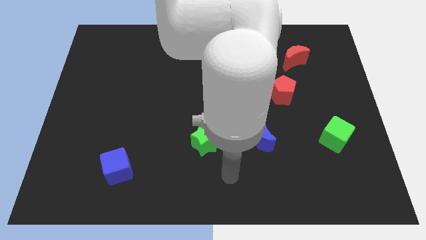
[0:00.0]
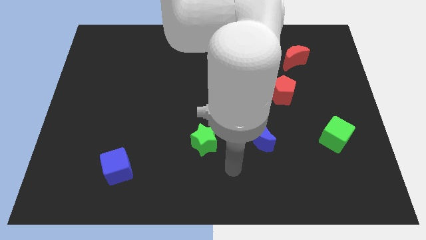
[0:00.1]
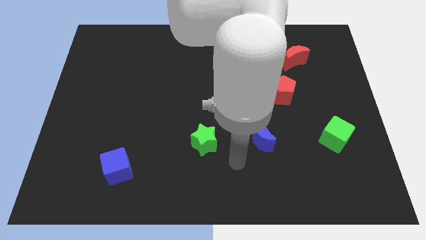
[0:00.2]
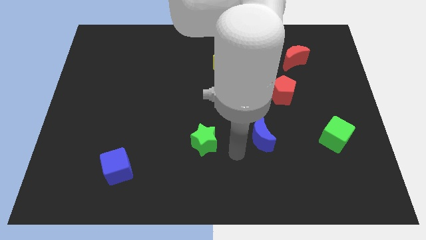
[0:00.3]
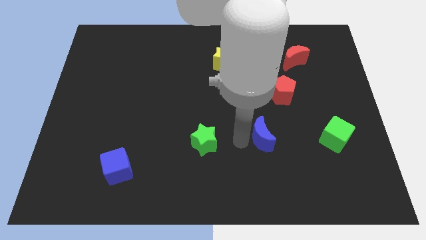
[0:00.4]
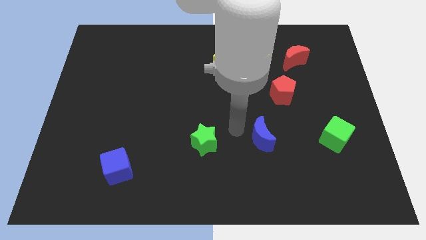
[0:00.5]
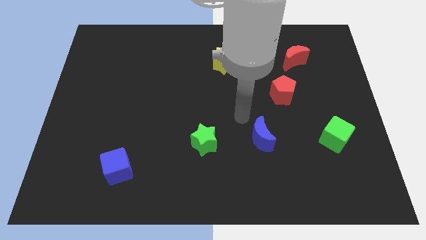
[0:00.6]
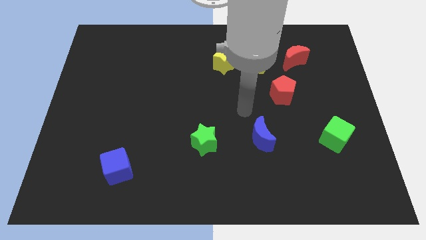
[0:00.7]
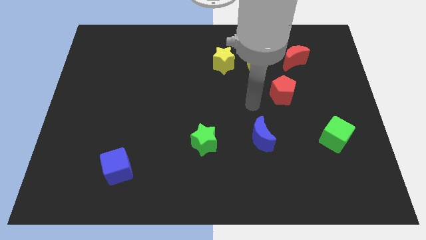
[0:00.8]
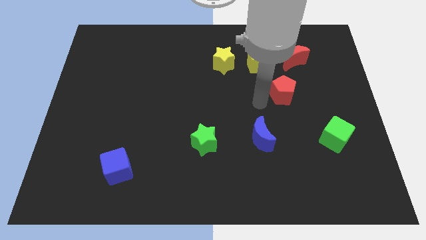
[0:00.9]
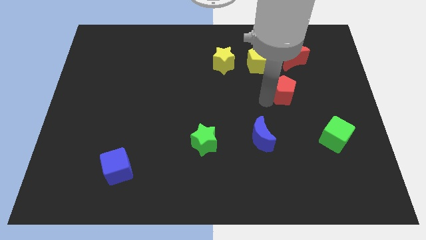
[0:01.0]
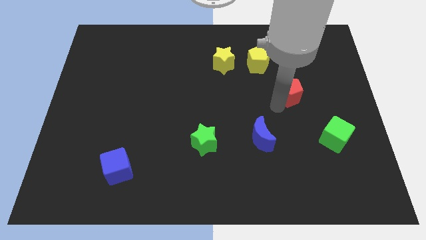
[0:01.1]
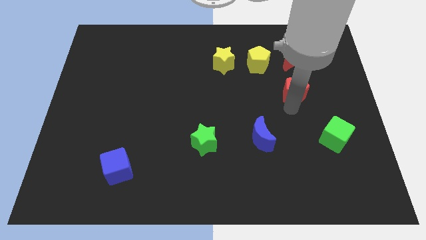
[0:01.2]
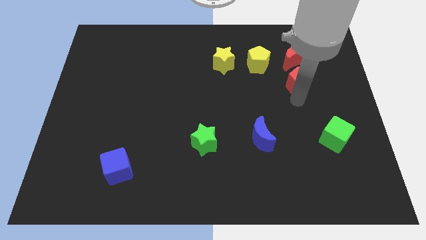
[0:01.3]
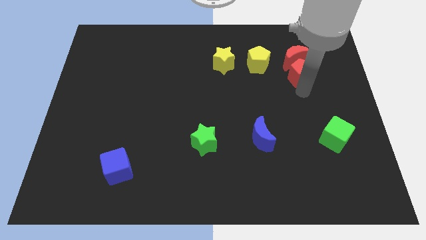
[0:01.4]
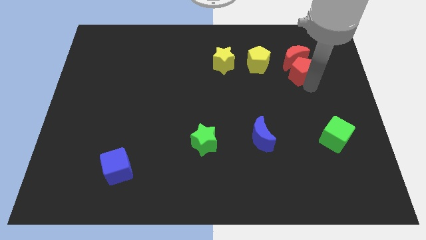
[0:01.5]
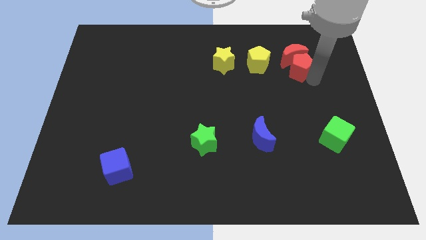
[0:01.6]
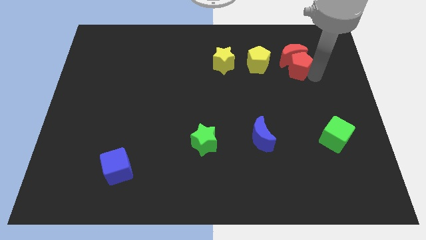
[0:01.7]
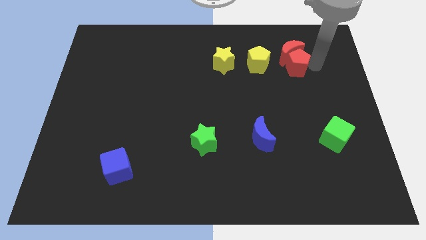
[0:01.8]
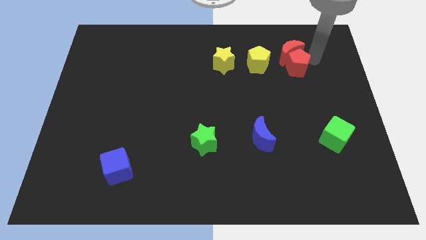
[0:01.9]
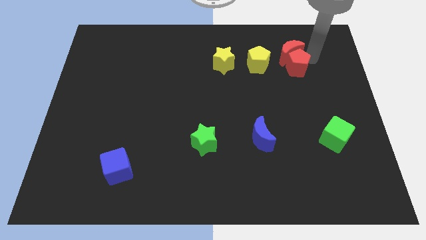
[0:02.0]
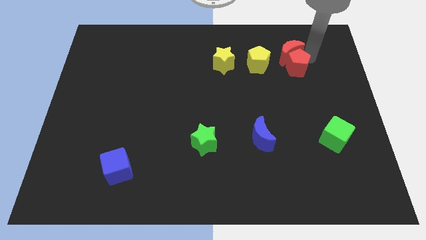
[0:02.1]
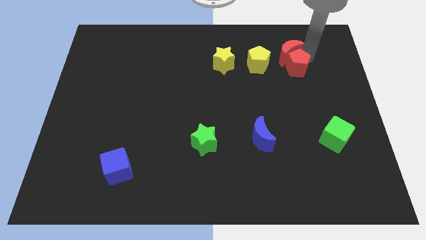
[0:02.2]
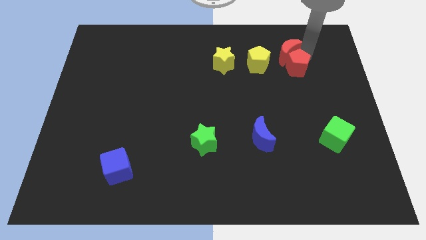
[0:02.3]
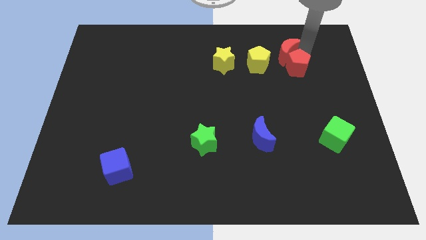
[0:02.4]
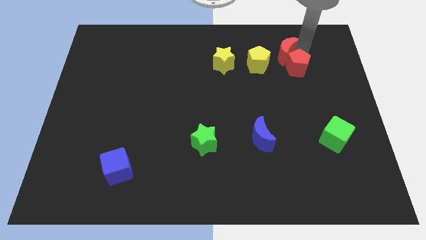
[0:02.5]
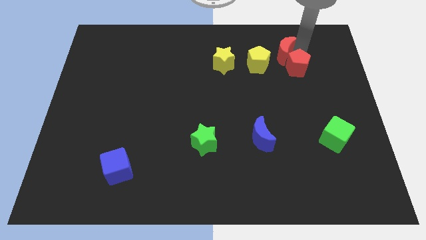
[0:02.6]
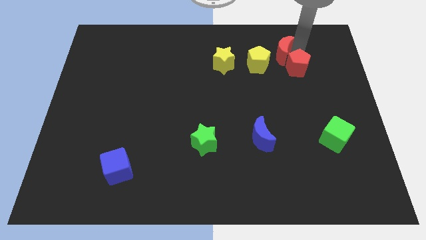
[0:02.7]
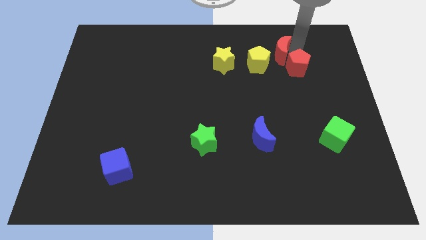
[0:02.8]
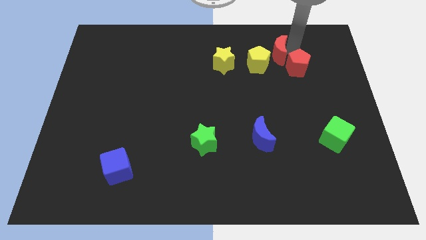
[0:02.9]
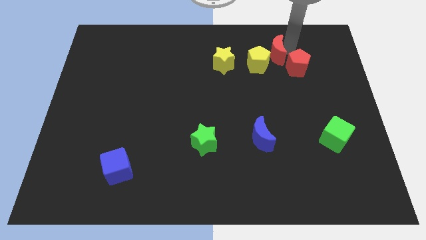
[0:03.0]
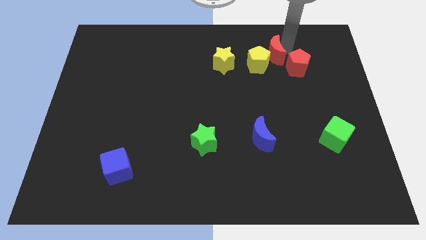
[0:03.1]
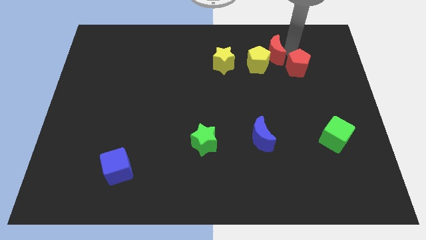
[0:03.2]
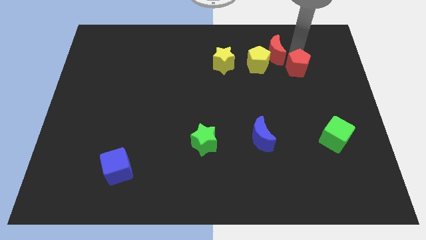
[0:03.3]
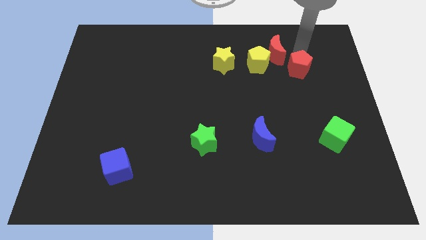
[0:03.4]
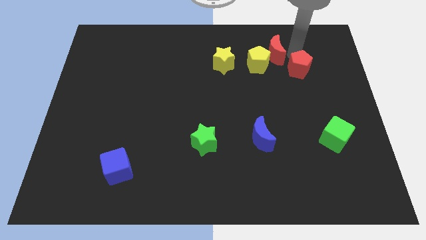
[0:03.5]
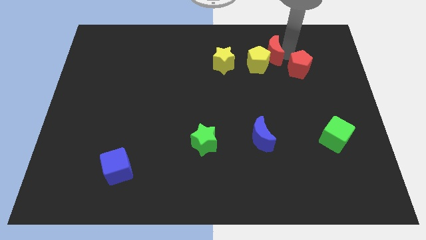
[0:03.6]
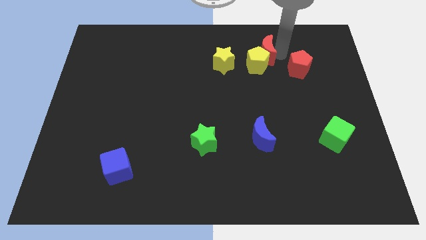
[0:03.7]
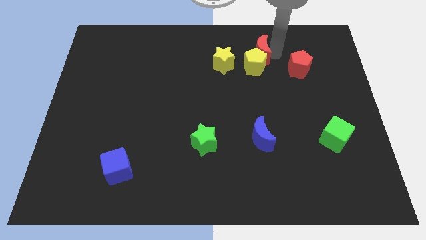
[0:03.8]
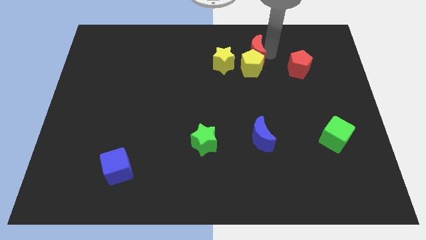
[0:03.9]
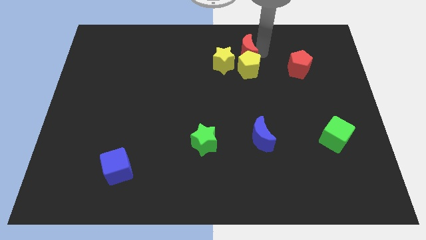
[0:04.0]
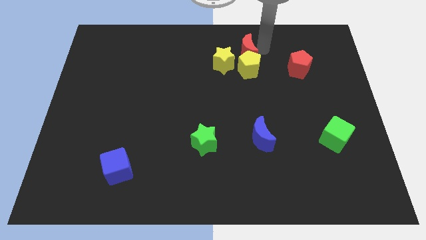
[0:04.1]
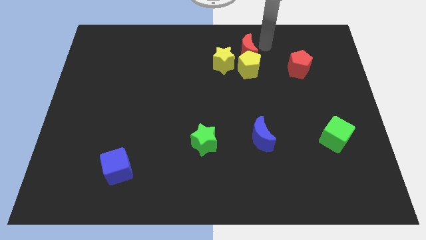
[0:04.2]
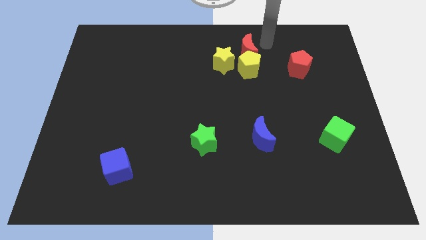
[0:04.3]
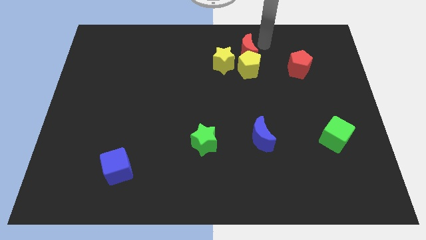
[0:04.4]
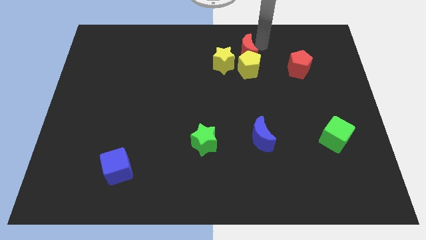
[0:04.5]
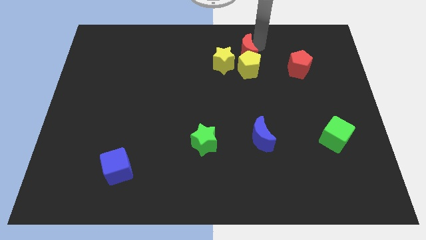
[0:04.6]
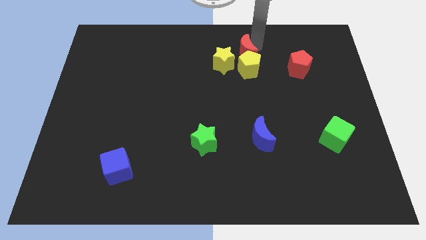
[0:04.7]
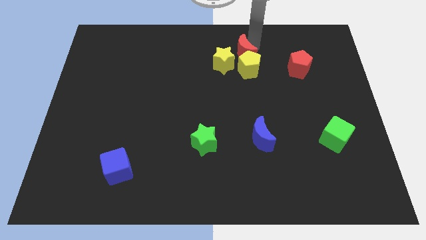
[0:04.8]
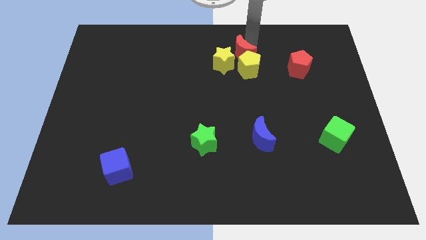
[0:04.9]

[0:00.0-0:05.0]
move the red moon next to the yellow star

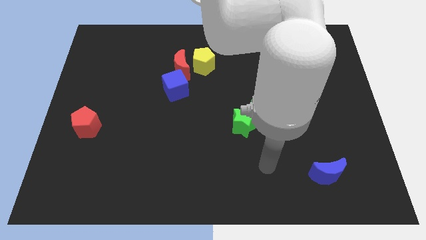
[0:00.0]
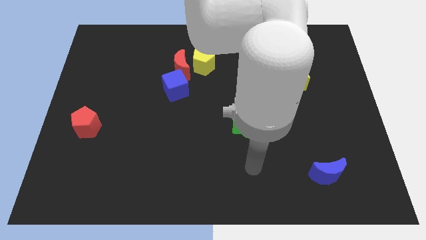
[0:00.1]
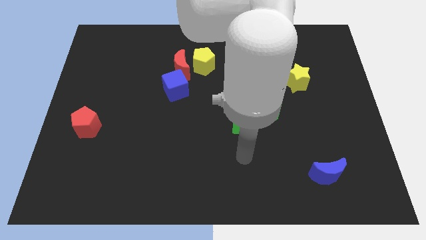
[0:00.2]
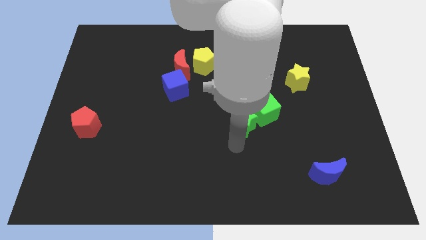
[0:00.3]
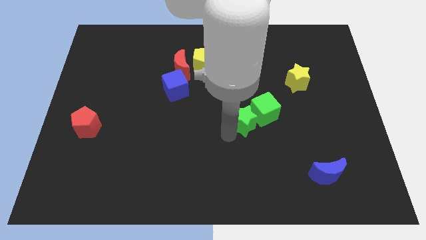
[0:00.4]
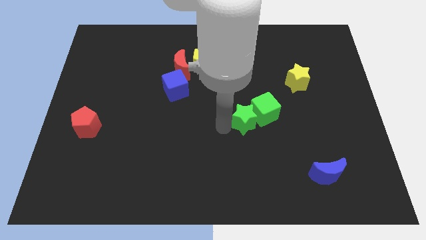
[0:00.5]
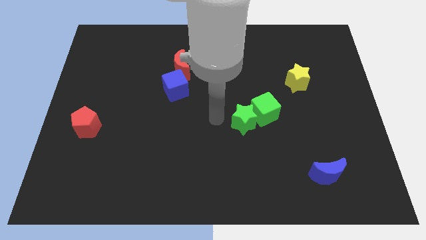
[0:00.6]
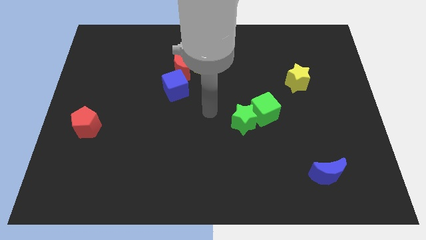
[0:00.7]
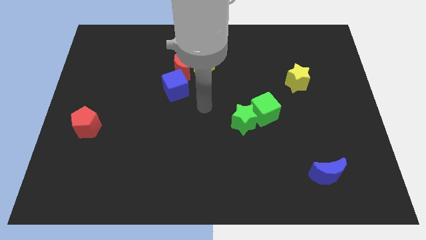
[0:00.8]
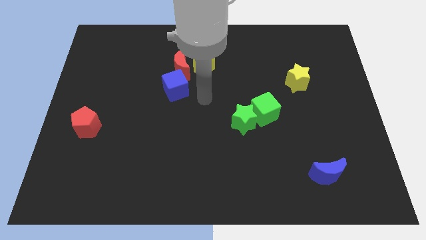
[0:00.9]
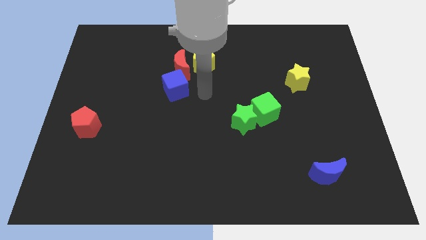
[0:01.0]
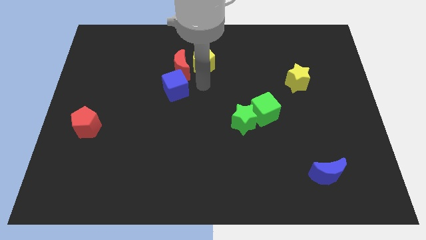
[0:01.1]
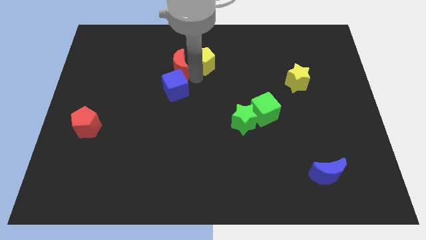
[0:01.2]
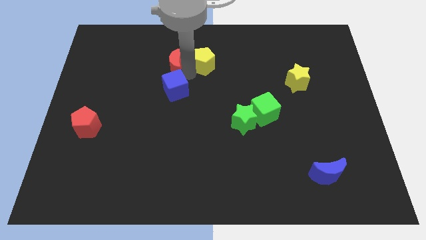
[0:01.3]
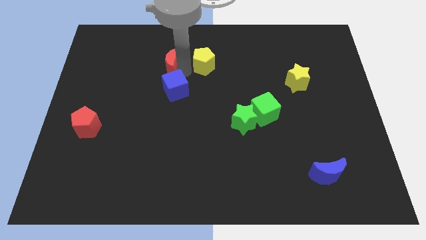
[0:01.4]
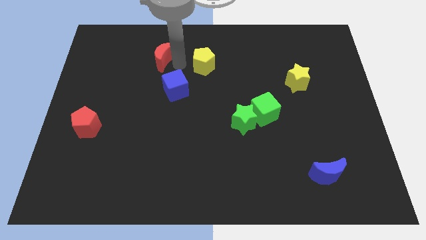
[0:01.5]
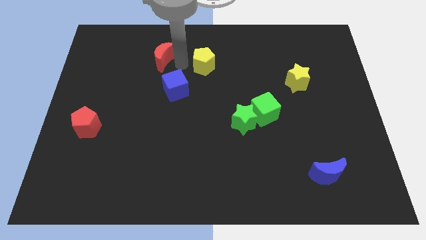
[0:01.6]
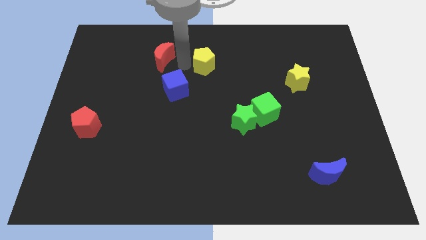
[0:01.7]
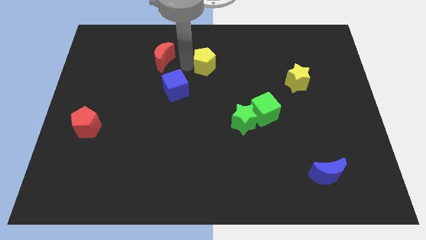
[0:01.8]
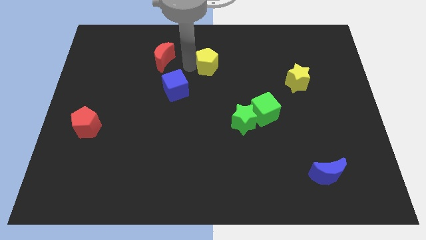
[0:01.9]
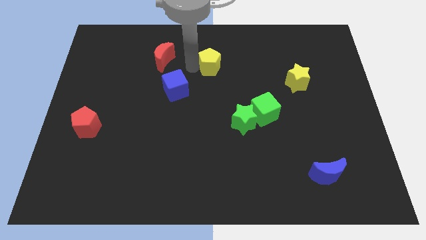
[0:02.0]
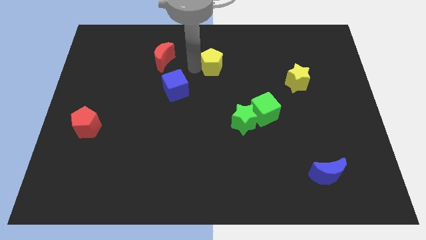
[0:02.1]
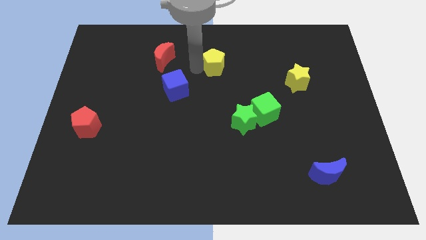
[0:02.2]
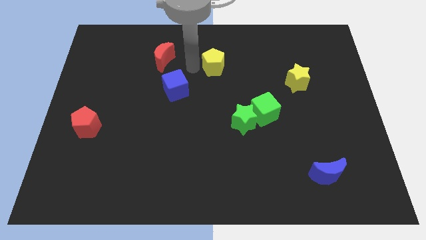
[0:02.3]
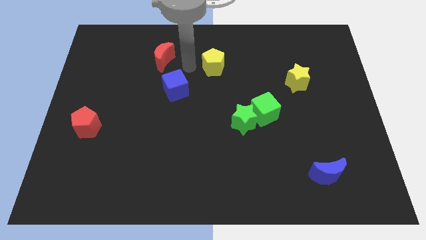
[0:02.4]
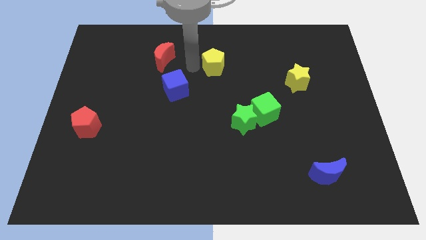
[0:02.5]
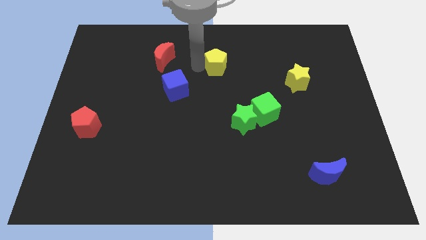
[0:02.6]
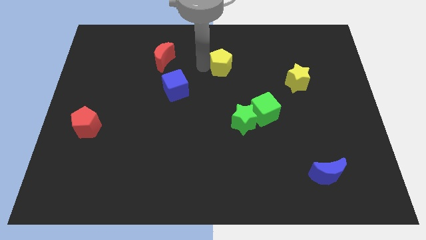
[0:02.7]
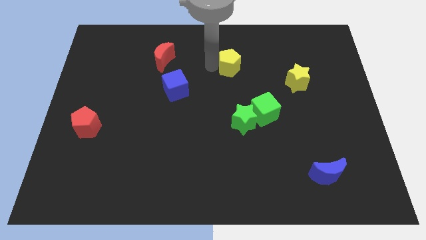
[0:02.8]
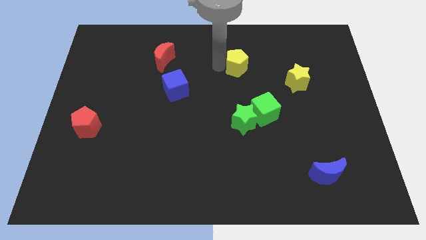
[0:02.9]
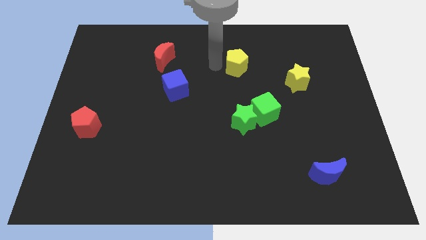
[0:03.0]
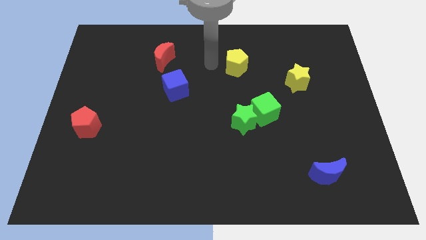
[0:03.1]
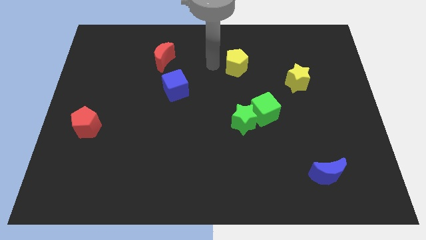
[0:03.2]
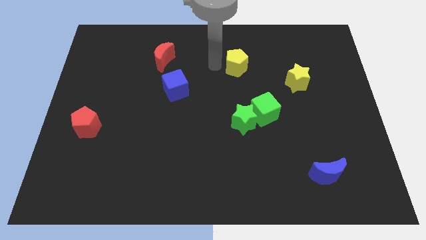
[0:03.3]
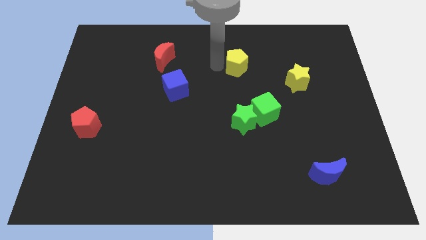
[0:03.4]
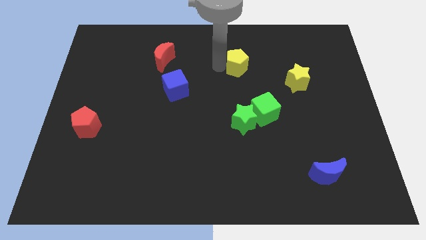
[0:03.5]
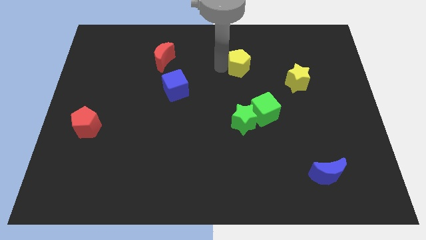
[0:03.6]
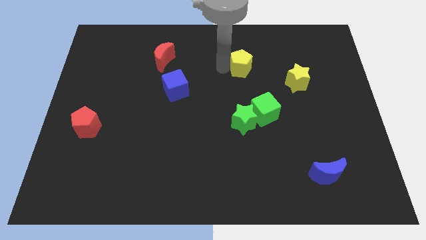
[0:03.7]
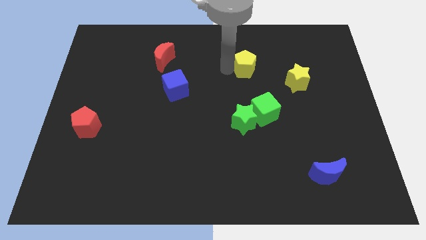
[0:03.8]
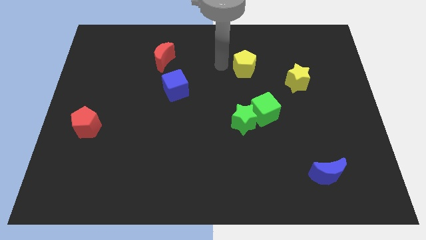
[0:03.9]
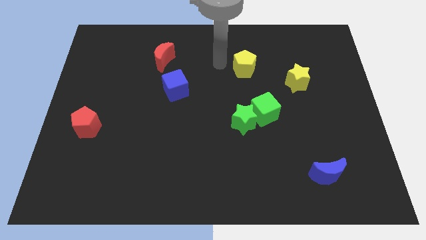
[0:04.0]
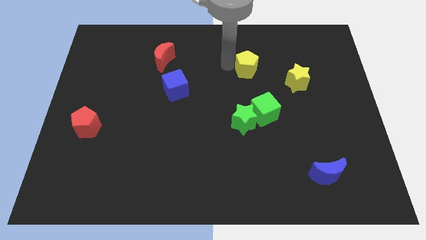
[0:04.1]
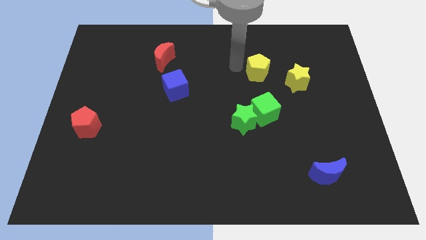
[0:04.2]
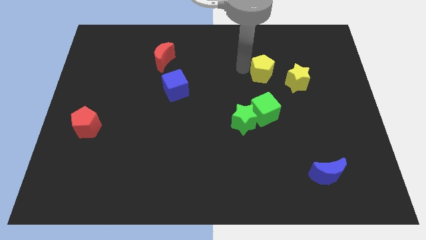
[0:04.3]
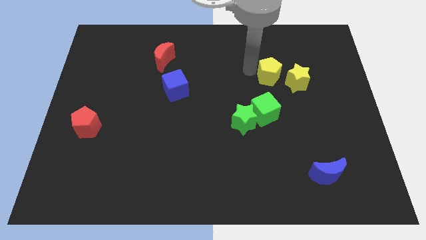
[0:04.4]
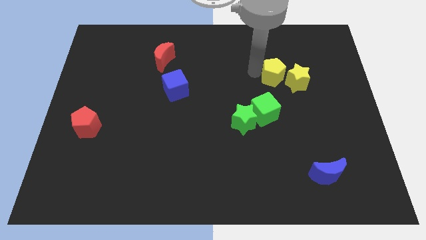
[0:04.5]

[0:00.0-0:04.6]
push the yellow pentagon close to the yellow star
